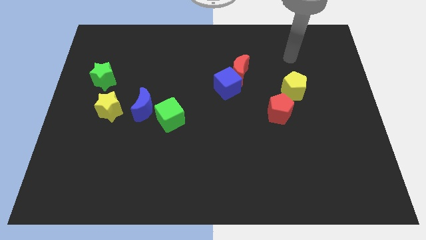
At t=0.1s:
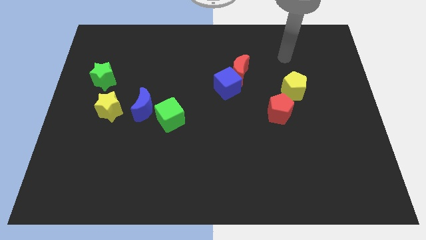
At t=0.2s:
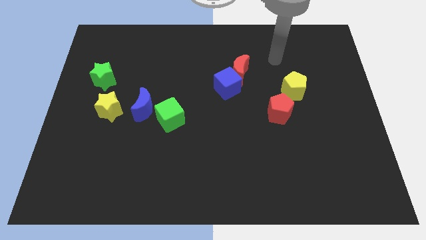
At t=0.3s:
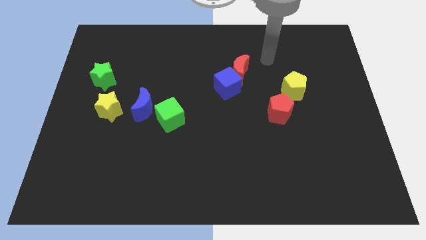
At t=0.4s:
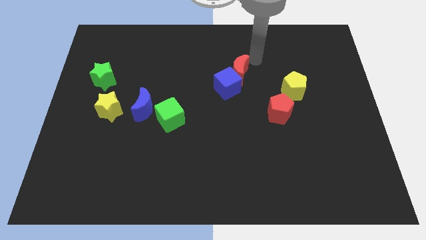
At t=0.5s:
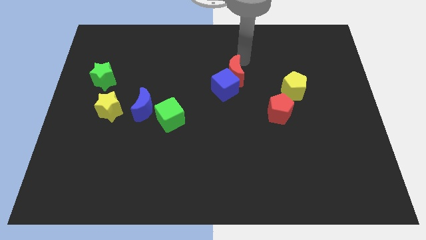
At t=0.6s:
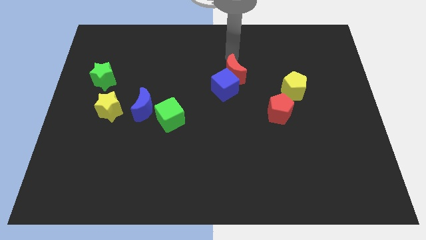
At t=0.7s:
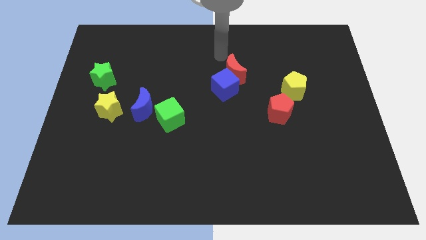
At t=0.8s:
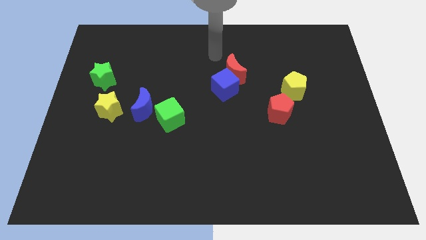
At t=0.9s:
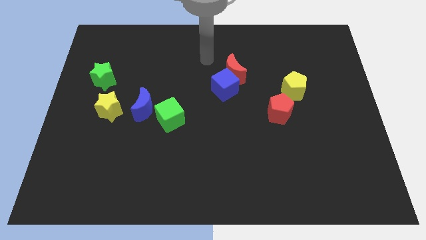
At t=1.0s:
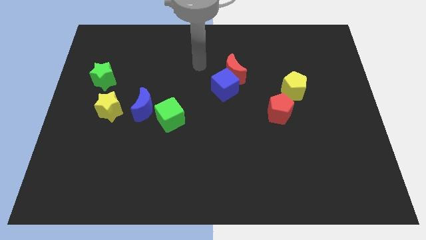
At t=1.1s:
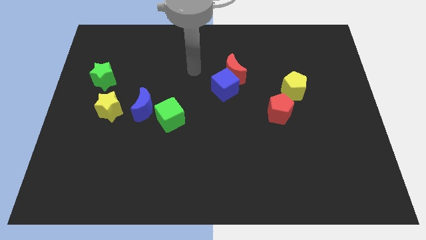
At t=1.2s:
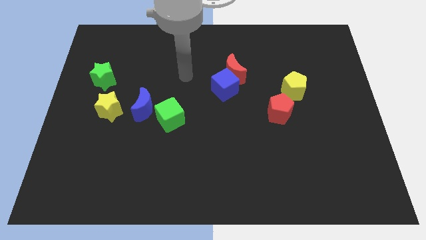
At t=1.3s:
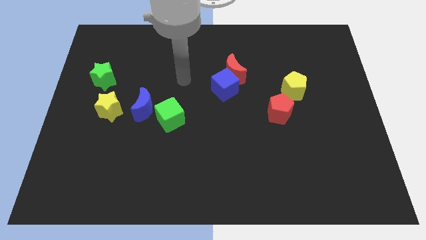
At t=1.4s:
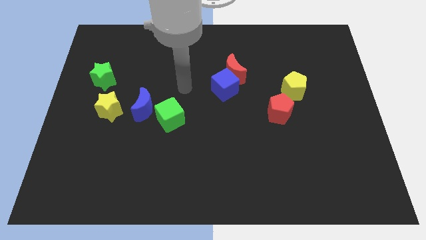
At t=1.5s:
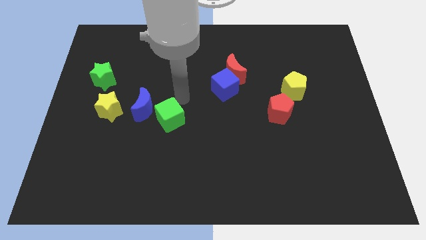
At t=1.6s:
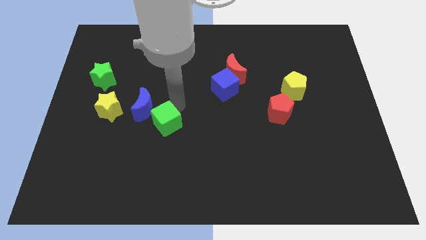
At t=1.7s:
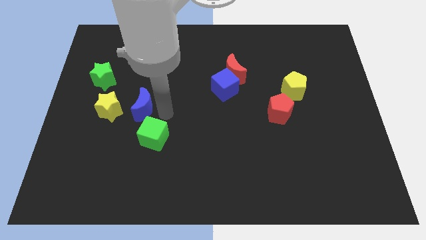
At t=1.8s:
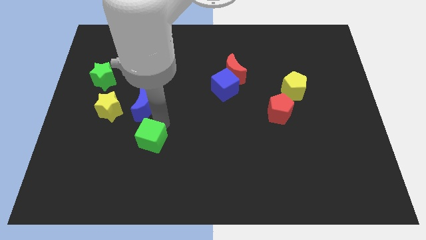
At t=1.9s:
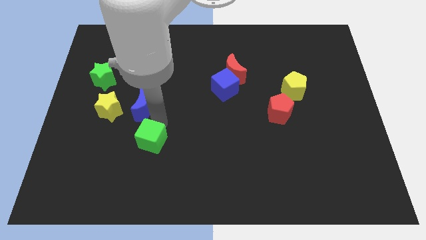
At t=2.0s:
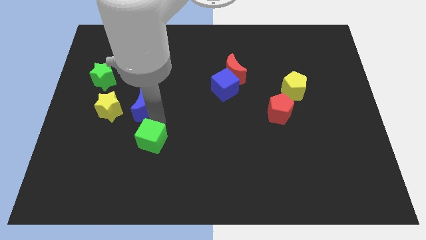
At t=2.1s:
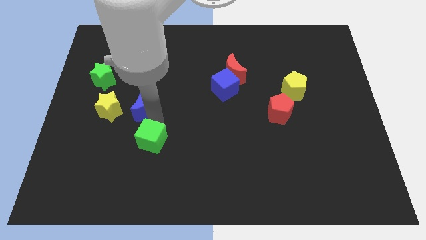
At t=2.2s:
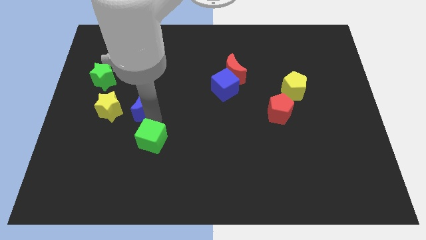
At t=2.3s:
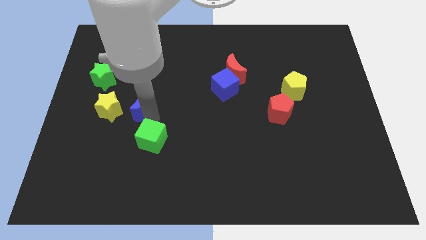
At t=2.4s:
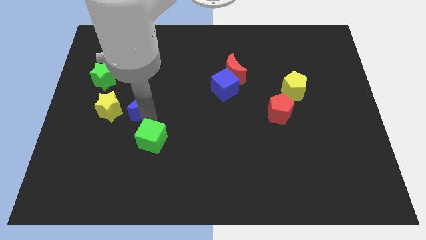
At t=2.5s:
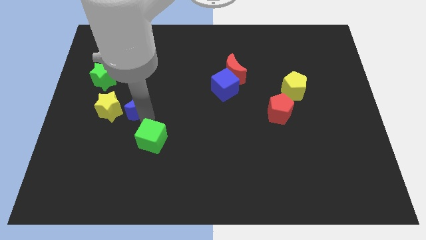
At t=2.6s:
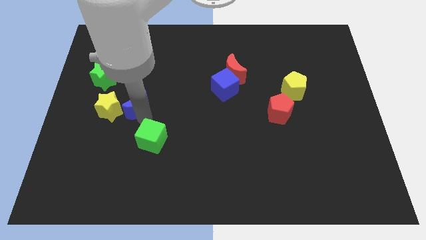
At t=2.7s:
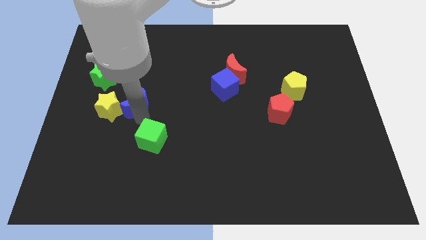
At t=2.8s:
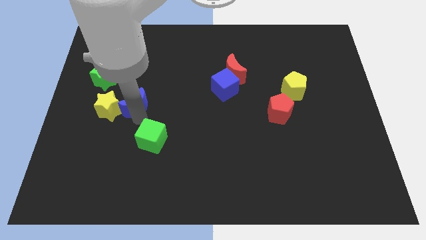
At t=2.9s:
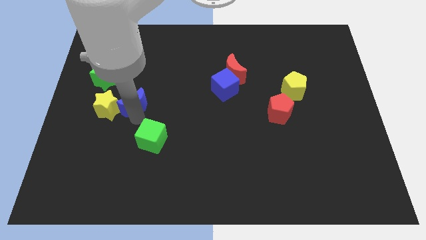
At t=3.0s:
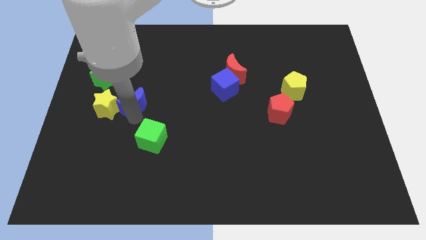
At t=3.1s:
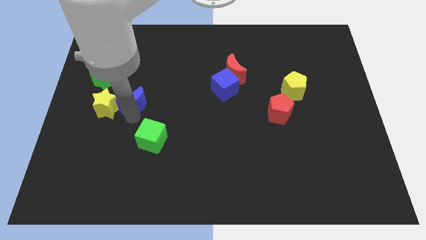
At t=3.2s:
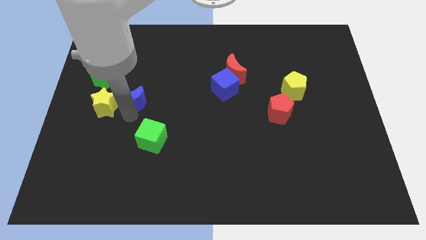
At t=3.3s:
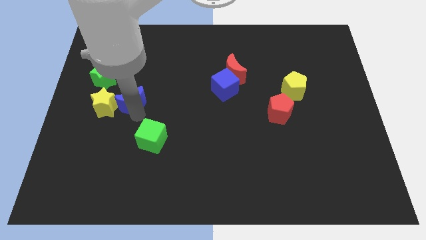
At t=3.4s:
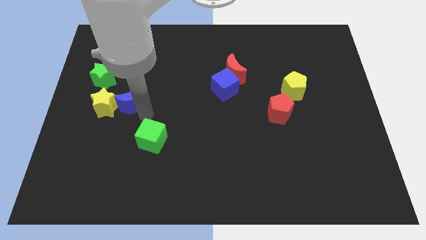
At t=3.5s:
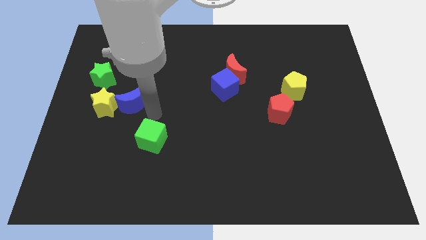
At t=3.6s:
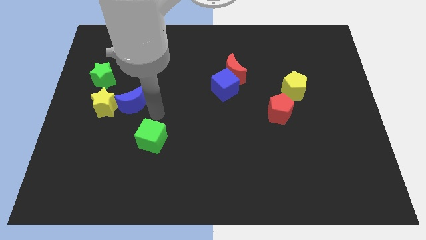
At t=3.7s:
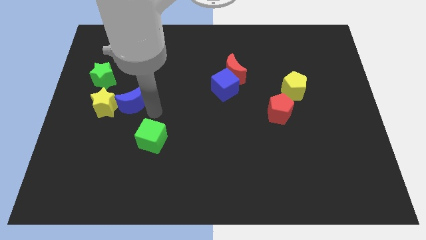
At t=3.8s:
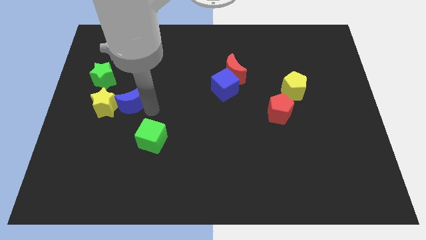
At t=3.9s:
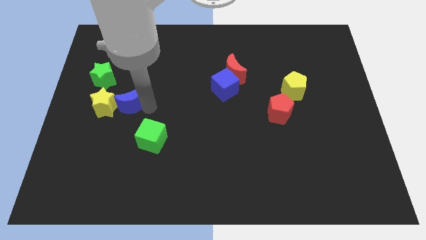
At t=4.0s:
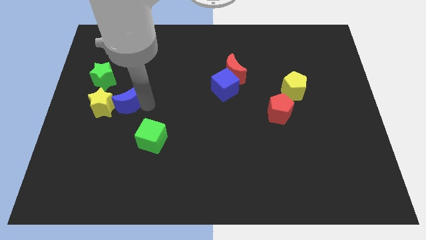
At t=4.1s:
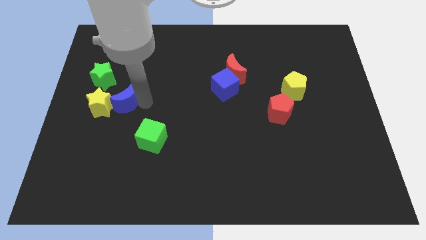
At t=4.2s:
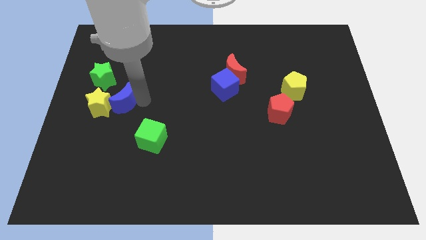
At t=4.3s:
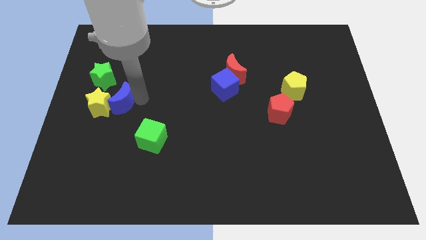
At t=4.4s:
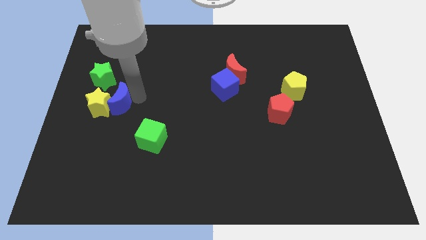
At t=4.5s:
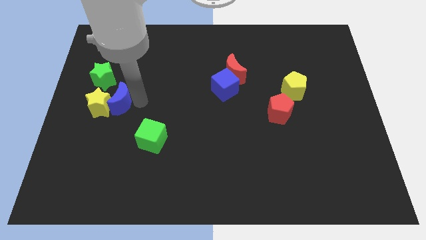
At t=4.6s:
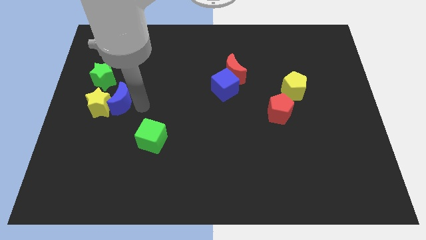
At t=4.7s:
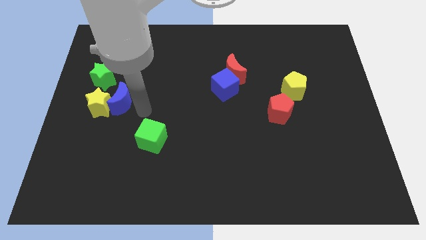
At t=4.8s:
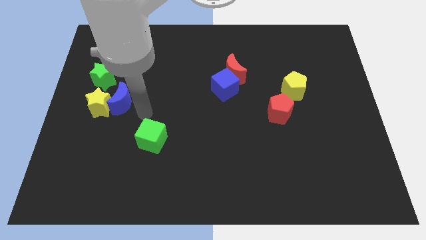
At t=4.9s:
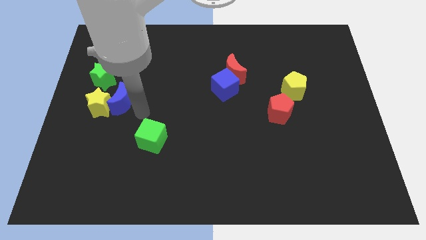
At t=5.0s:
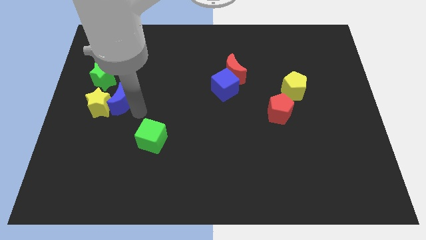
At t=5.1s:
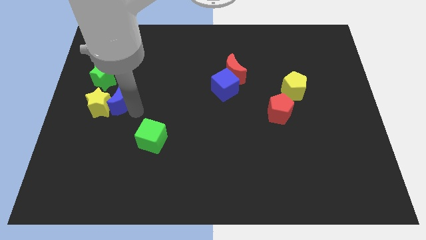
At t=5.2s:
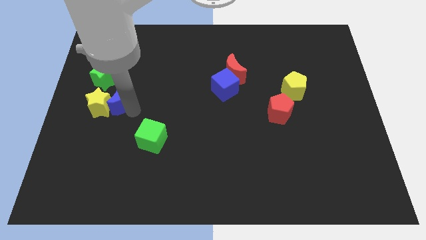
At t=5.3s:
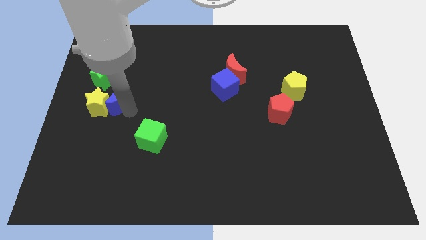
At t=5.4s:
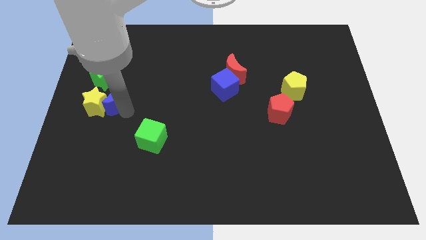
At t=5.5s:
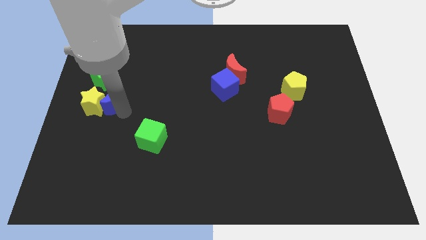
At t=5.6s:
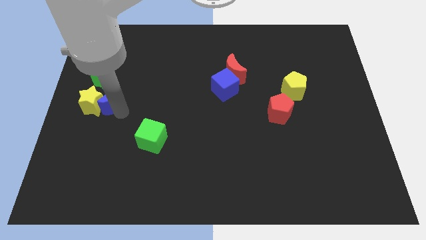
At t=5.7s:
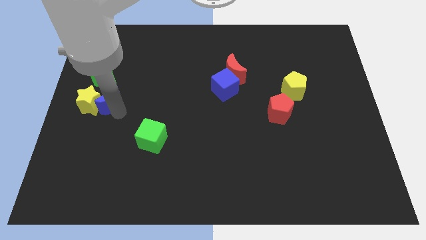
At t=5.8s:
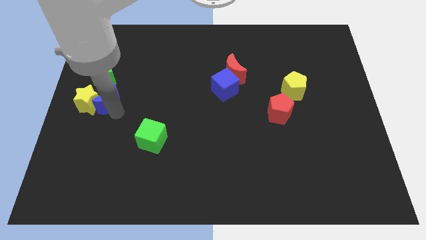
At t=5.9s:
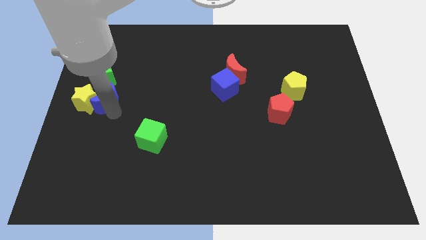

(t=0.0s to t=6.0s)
put the blue moon to the left side
